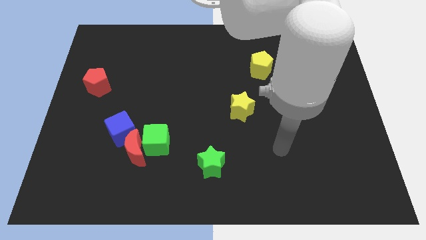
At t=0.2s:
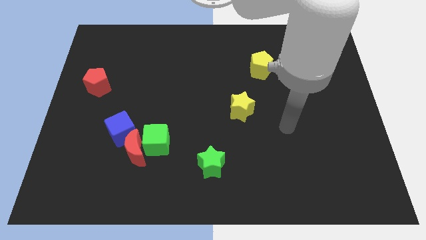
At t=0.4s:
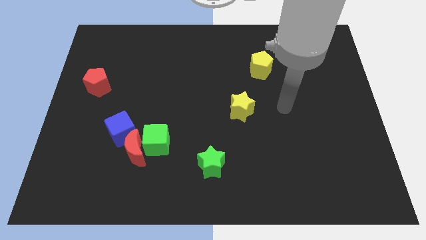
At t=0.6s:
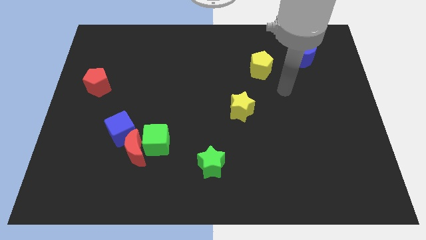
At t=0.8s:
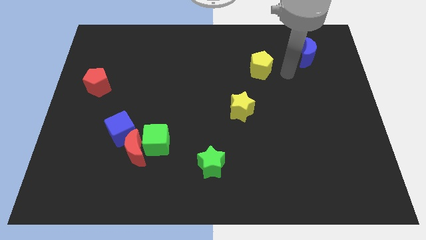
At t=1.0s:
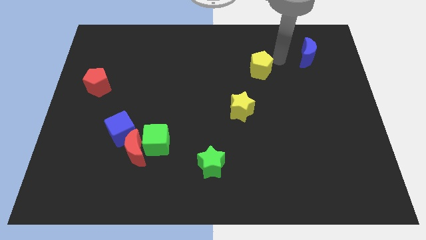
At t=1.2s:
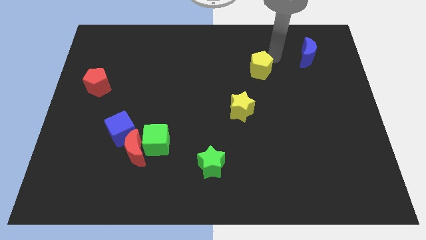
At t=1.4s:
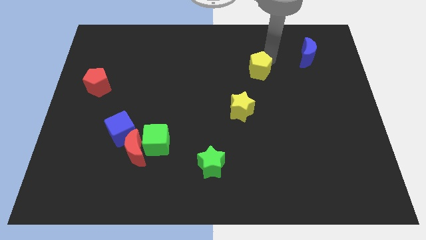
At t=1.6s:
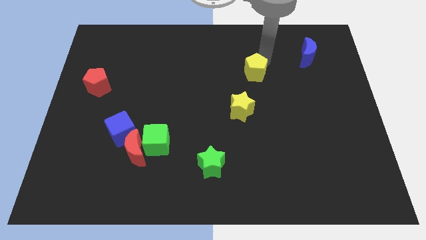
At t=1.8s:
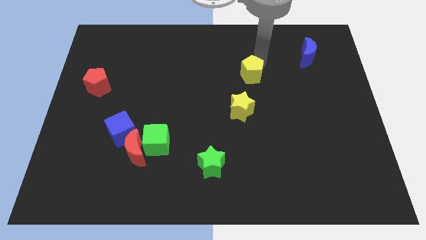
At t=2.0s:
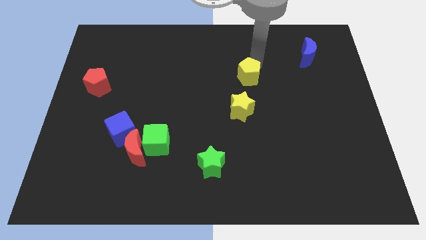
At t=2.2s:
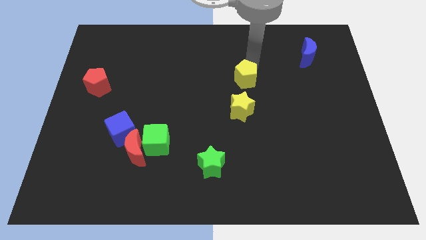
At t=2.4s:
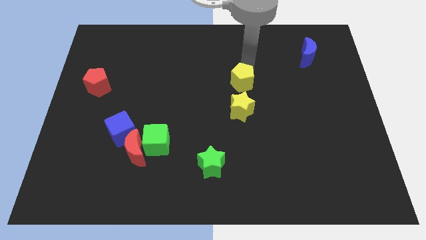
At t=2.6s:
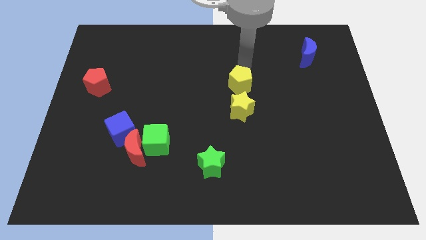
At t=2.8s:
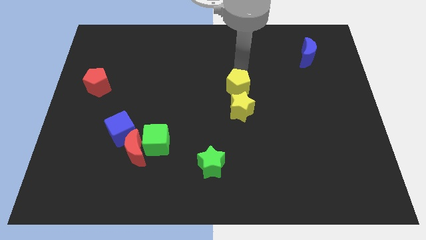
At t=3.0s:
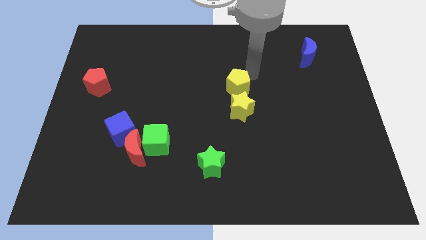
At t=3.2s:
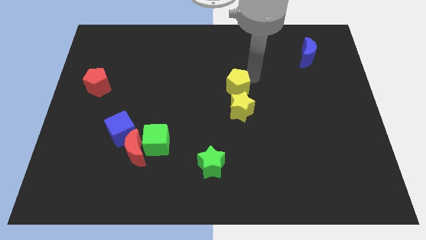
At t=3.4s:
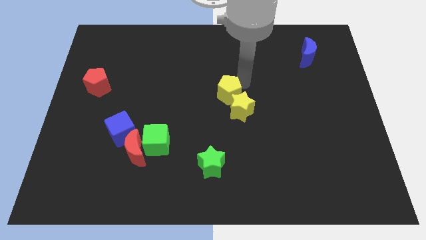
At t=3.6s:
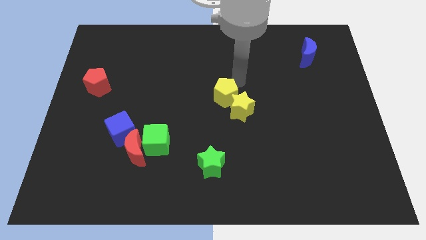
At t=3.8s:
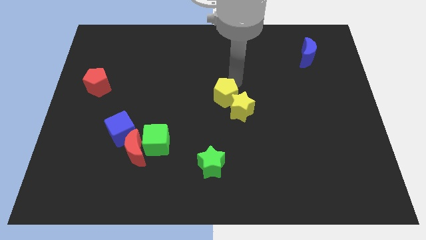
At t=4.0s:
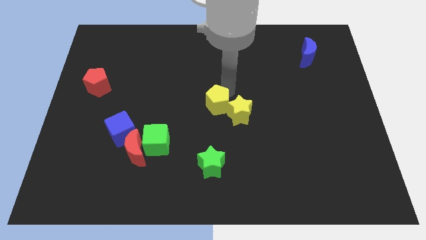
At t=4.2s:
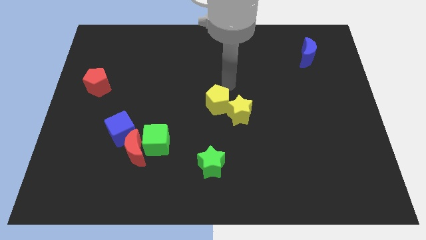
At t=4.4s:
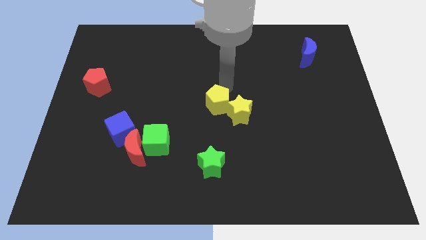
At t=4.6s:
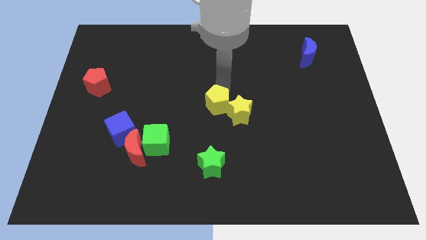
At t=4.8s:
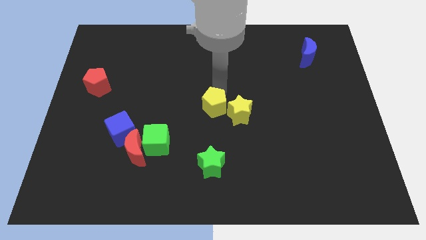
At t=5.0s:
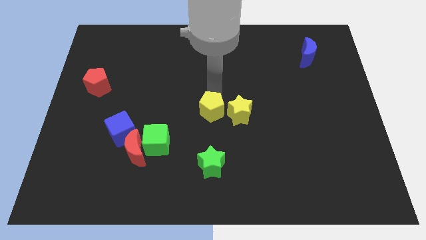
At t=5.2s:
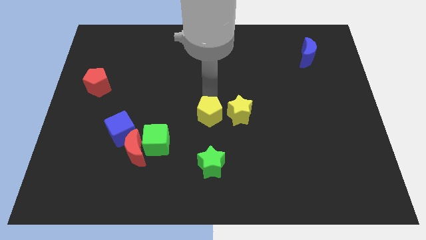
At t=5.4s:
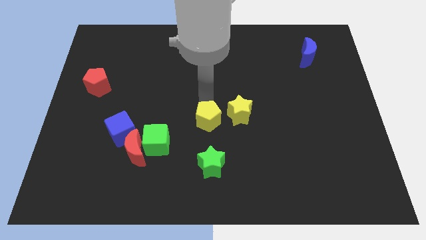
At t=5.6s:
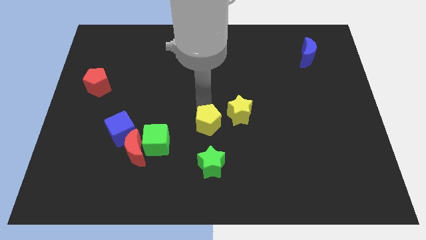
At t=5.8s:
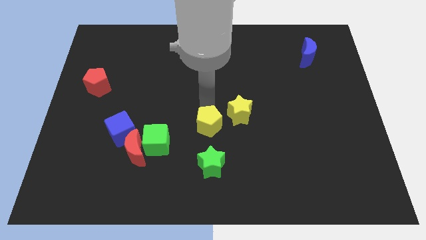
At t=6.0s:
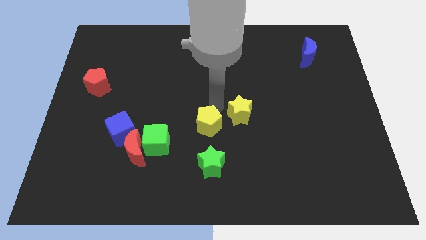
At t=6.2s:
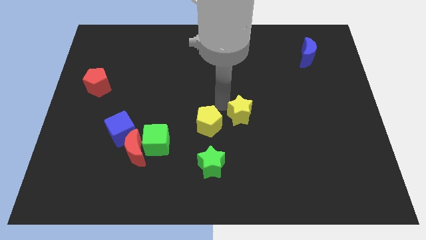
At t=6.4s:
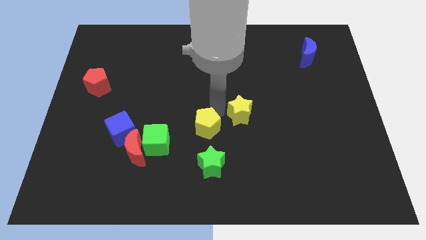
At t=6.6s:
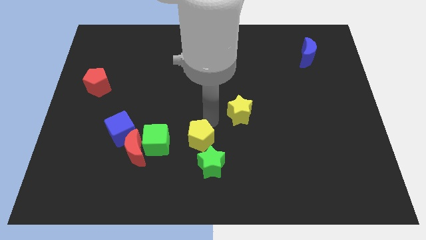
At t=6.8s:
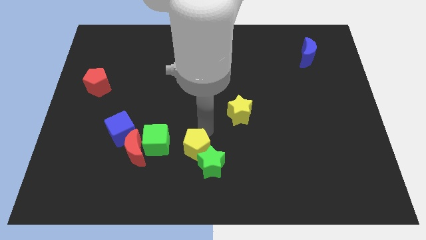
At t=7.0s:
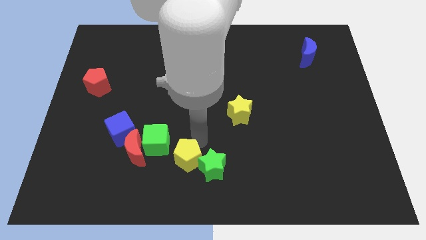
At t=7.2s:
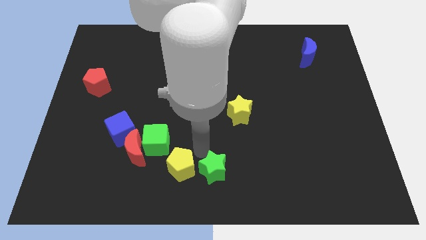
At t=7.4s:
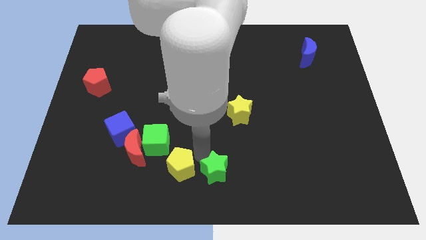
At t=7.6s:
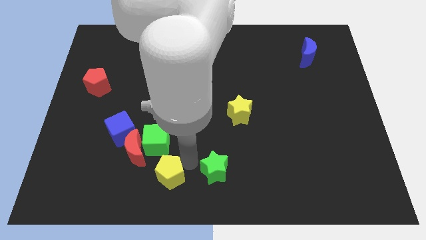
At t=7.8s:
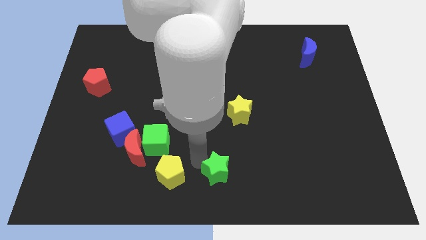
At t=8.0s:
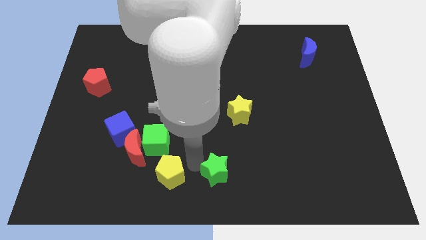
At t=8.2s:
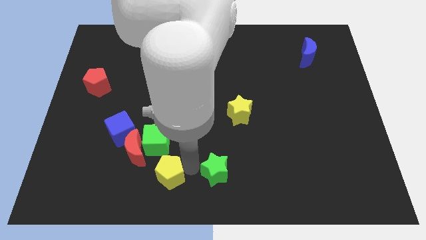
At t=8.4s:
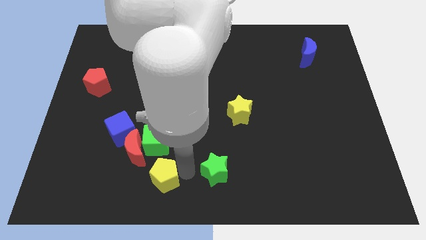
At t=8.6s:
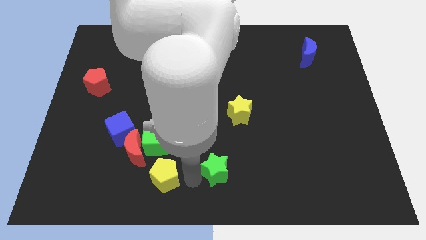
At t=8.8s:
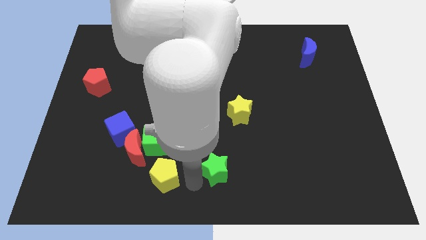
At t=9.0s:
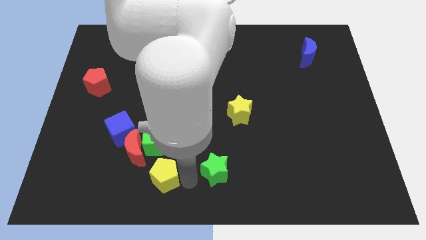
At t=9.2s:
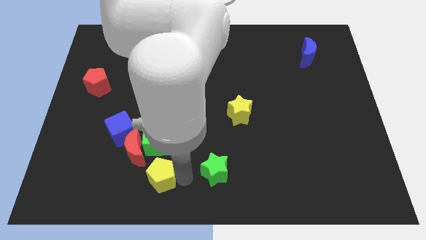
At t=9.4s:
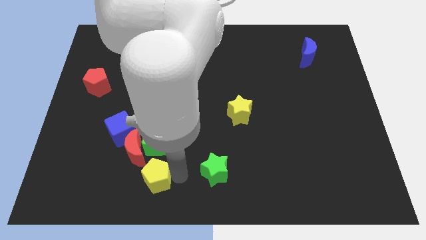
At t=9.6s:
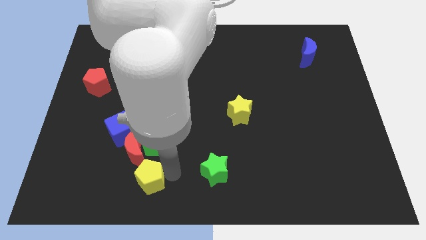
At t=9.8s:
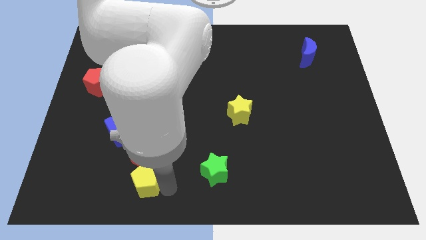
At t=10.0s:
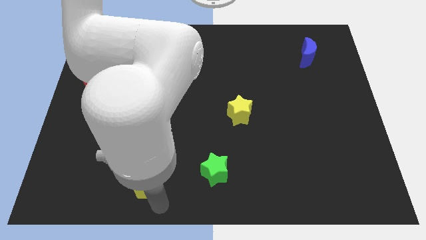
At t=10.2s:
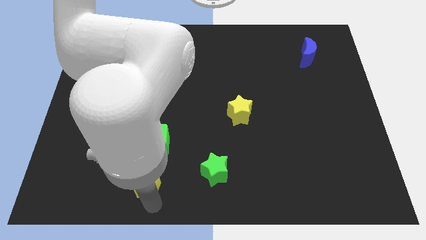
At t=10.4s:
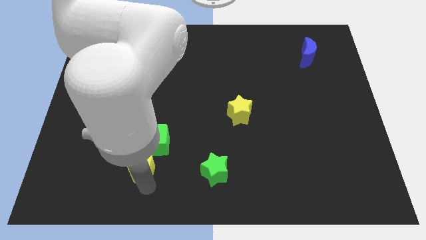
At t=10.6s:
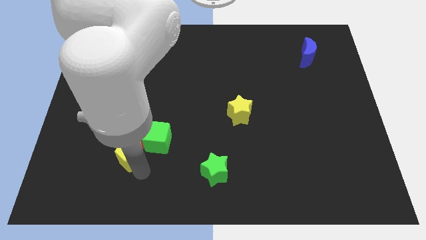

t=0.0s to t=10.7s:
slide the yellow pentagon close to the red moon

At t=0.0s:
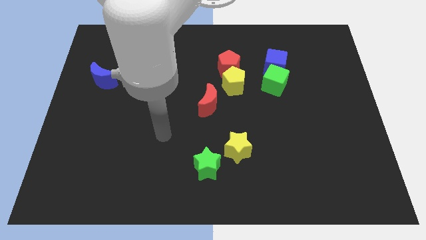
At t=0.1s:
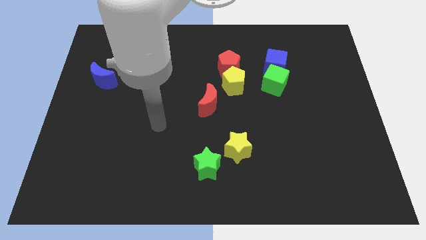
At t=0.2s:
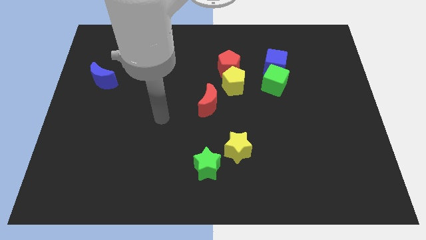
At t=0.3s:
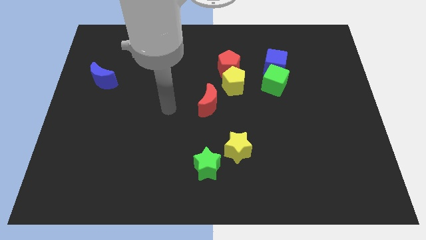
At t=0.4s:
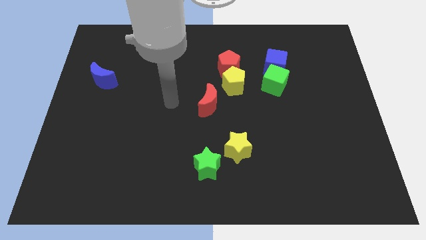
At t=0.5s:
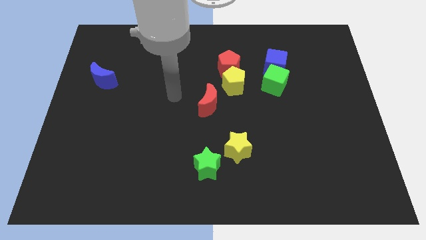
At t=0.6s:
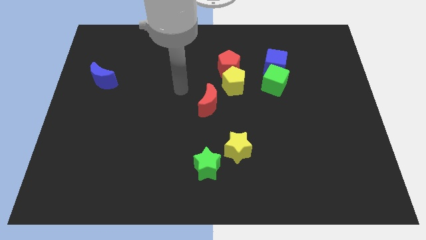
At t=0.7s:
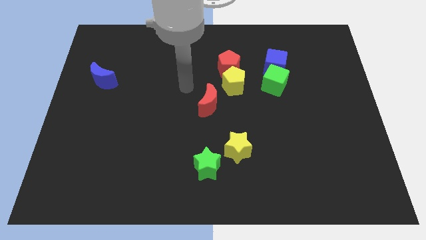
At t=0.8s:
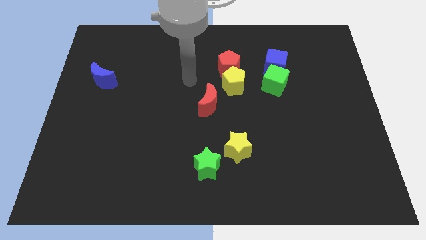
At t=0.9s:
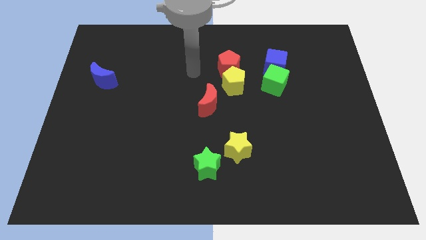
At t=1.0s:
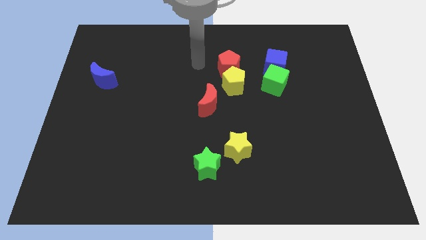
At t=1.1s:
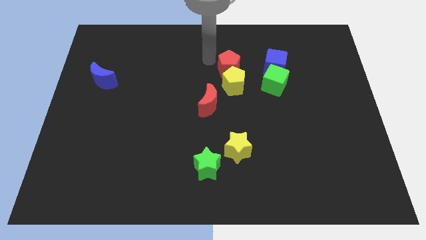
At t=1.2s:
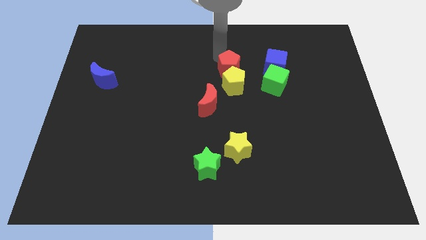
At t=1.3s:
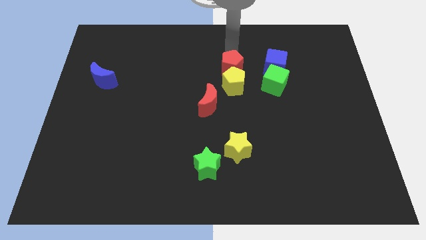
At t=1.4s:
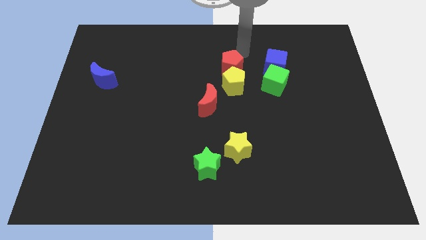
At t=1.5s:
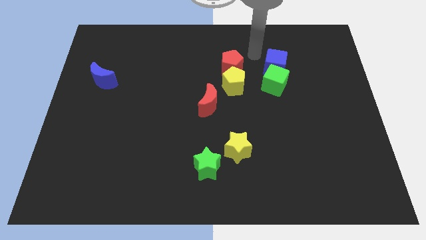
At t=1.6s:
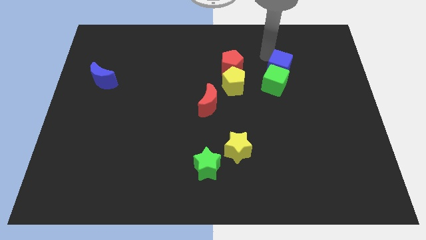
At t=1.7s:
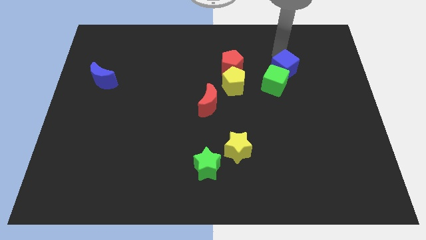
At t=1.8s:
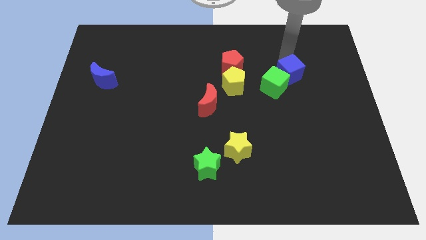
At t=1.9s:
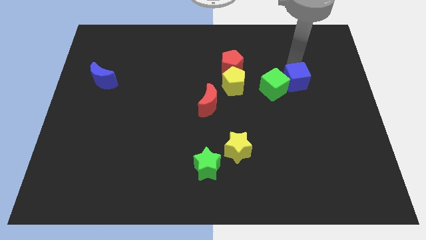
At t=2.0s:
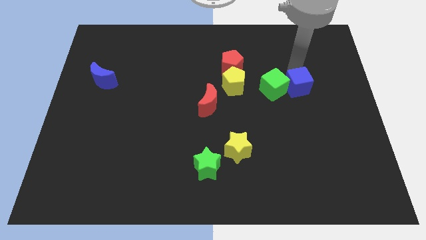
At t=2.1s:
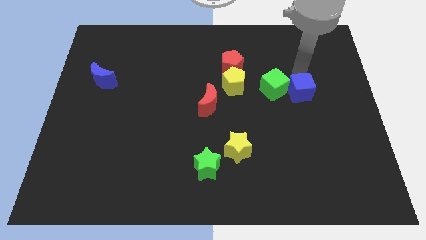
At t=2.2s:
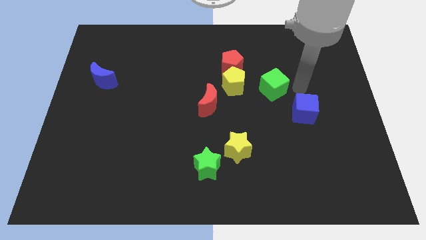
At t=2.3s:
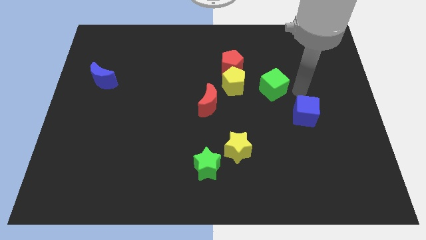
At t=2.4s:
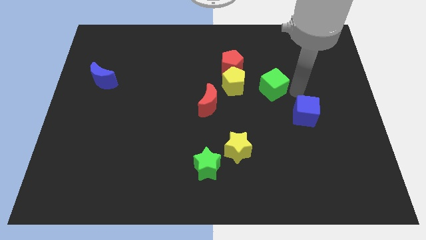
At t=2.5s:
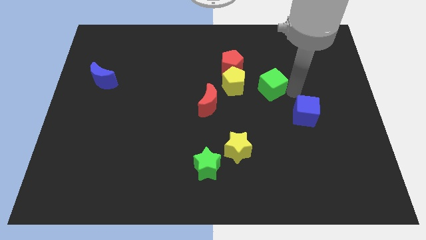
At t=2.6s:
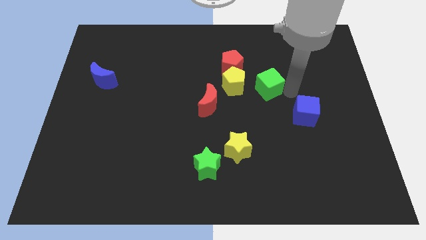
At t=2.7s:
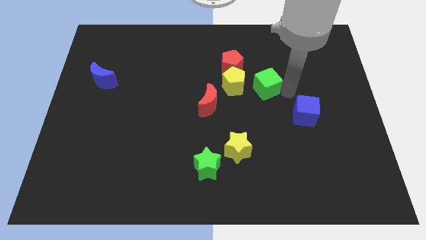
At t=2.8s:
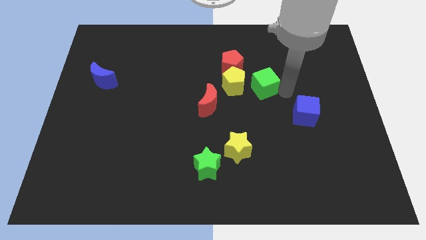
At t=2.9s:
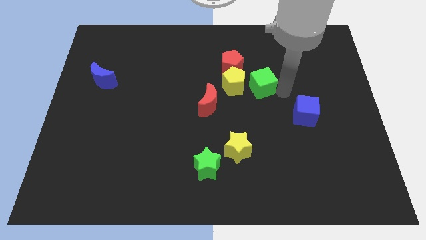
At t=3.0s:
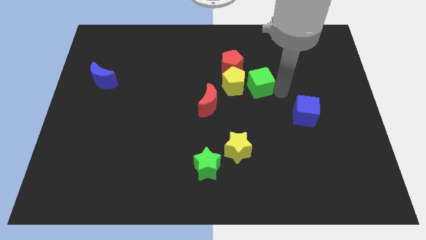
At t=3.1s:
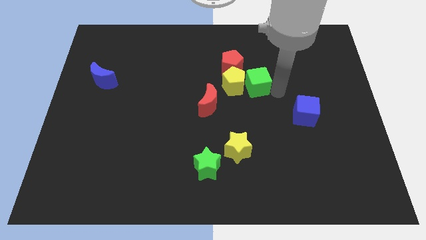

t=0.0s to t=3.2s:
put the green cube close to the yellow pentagon
